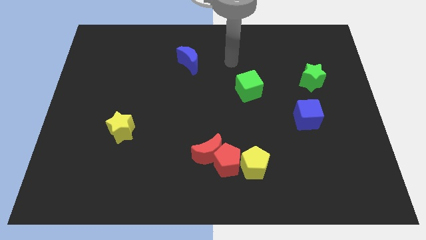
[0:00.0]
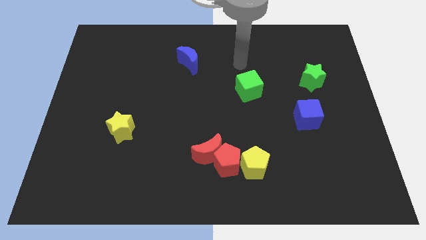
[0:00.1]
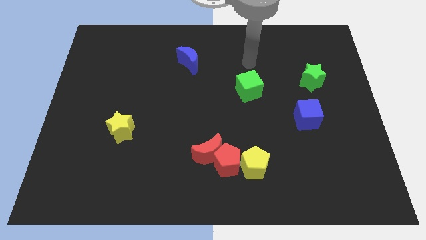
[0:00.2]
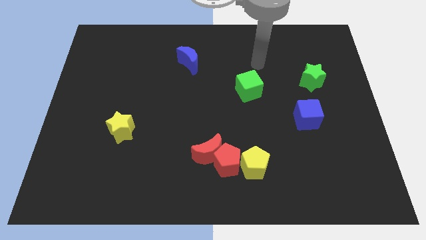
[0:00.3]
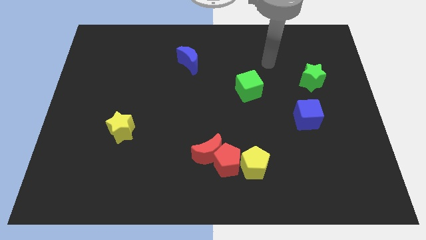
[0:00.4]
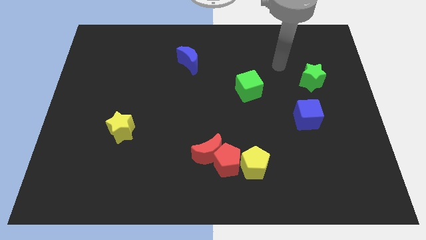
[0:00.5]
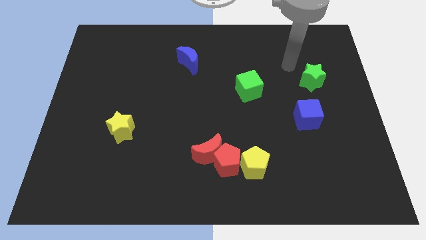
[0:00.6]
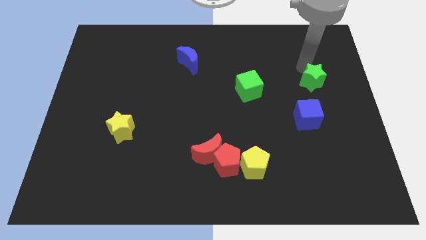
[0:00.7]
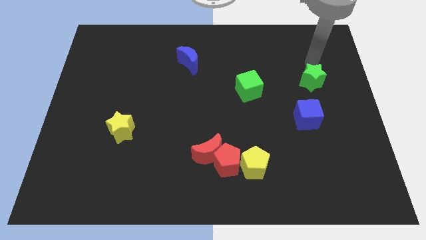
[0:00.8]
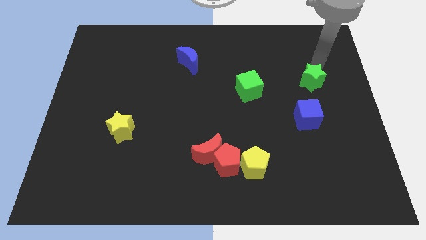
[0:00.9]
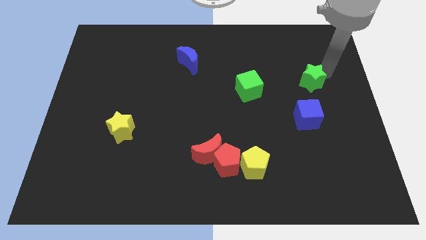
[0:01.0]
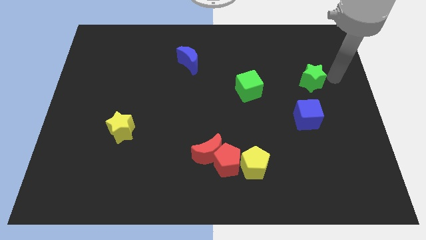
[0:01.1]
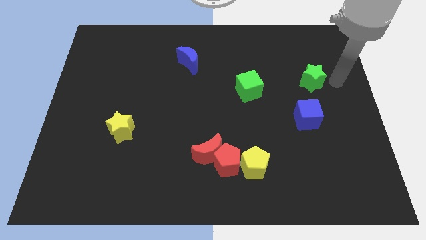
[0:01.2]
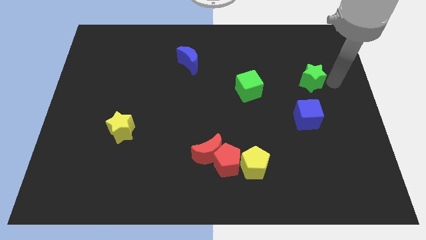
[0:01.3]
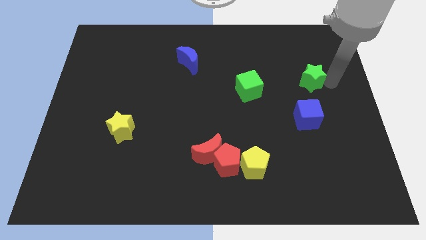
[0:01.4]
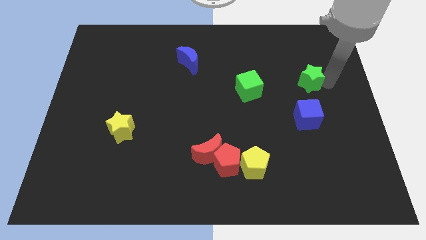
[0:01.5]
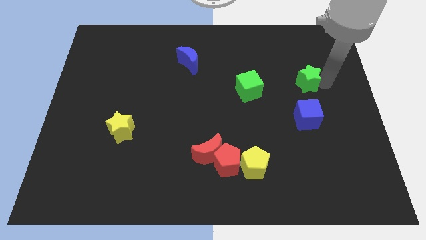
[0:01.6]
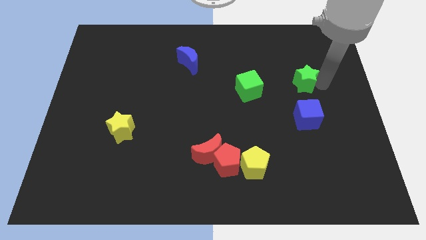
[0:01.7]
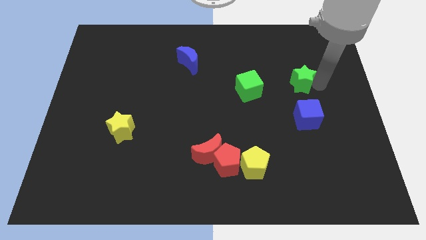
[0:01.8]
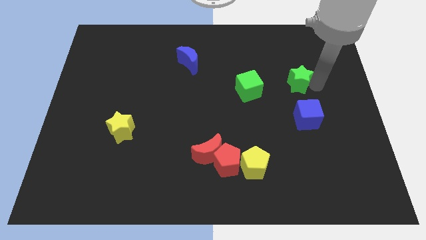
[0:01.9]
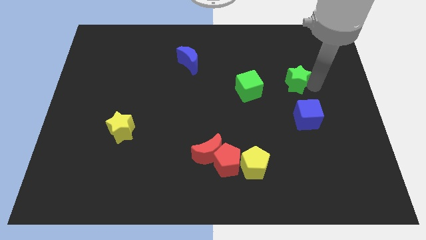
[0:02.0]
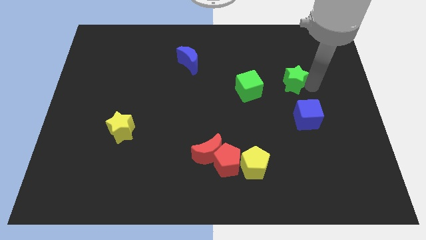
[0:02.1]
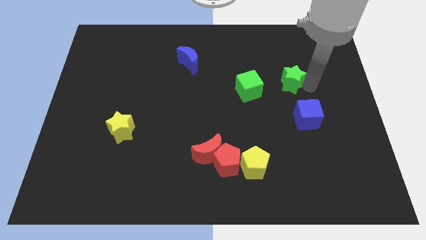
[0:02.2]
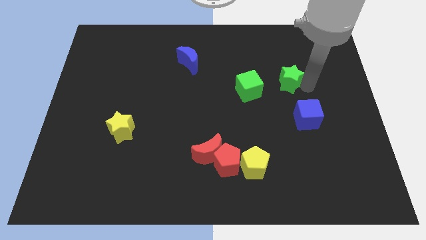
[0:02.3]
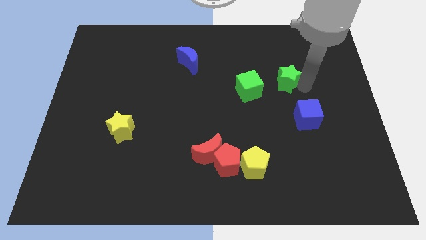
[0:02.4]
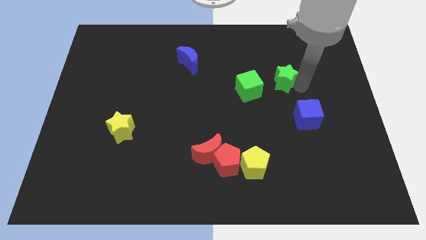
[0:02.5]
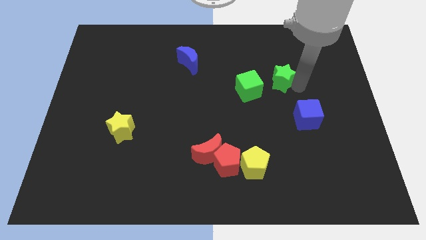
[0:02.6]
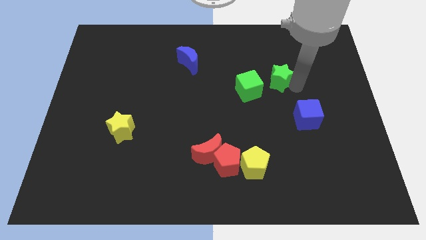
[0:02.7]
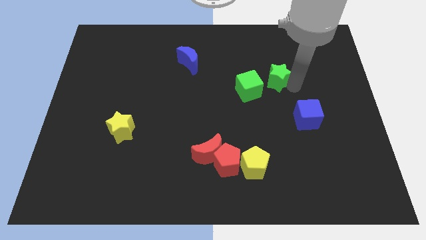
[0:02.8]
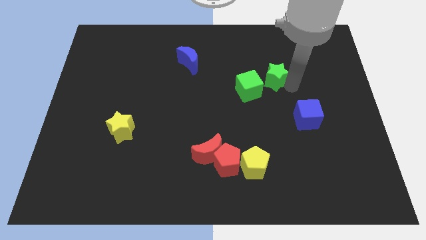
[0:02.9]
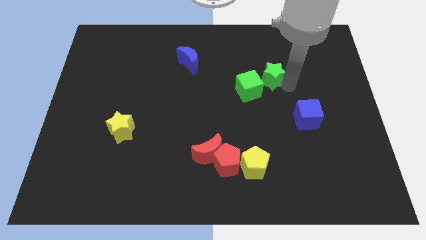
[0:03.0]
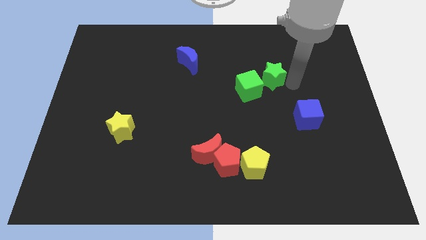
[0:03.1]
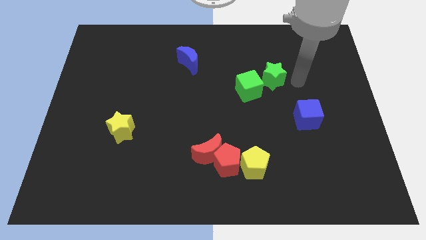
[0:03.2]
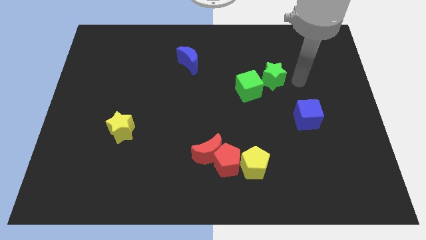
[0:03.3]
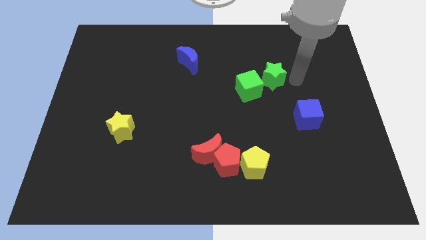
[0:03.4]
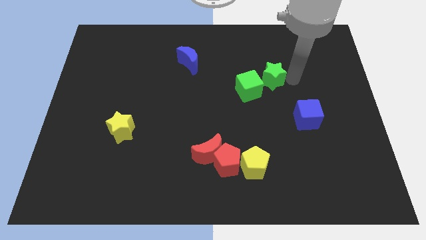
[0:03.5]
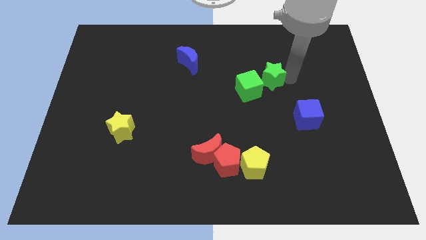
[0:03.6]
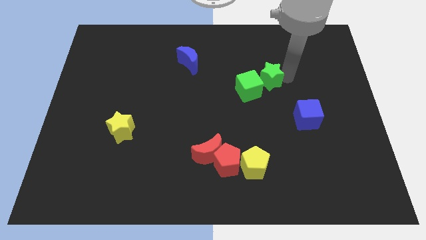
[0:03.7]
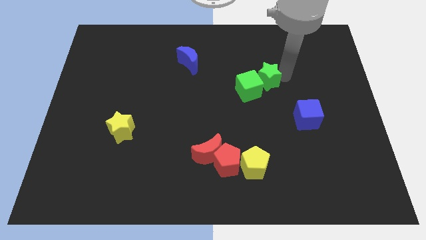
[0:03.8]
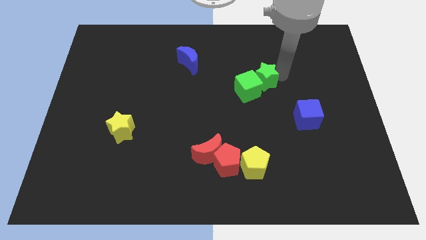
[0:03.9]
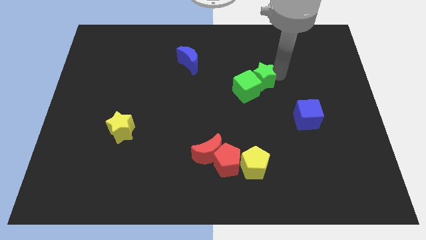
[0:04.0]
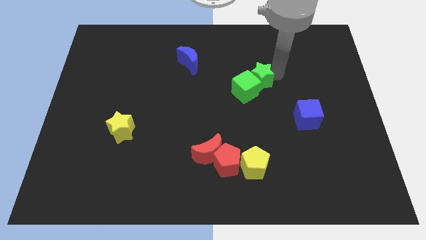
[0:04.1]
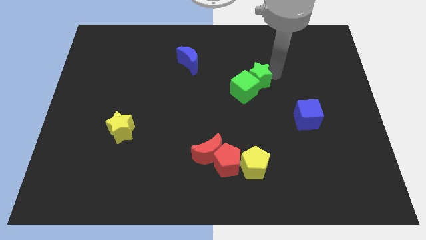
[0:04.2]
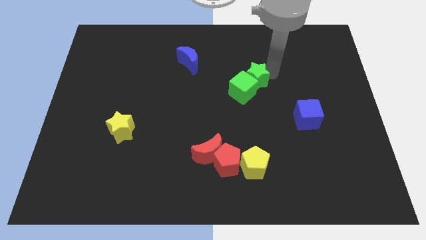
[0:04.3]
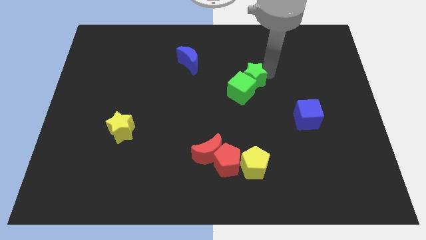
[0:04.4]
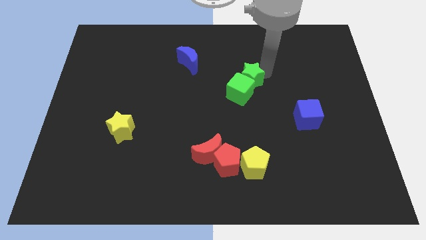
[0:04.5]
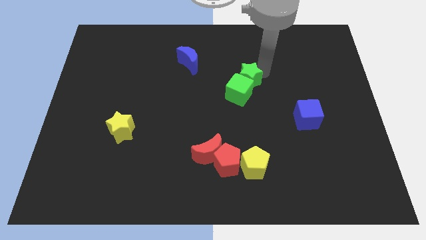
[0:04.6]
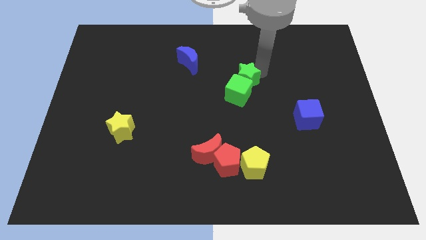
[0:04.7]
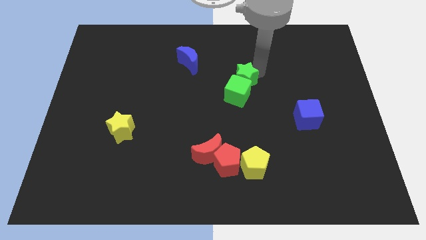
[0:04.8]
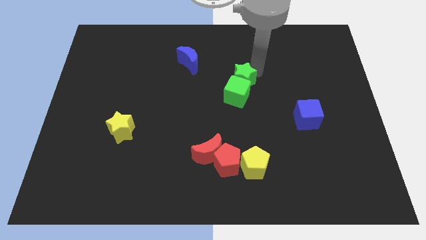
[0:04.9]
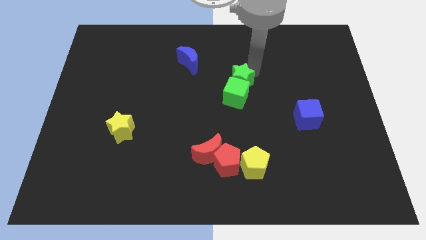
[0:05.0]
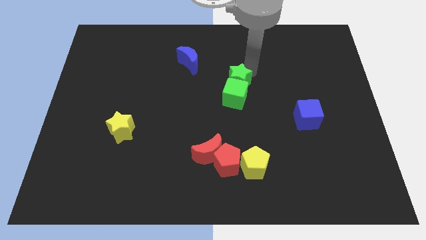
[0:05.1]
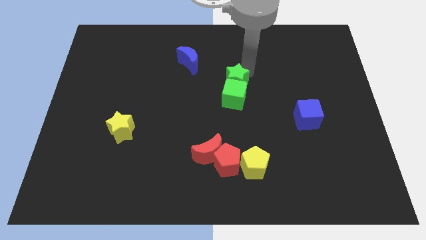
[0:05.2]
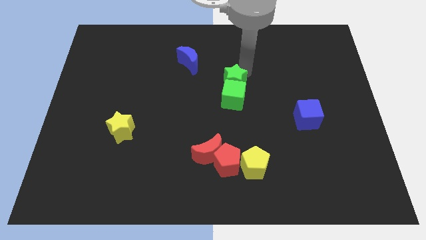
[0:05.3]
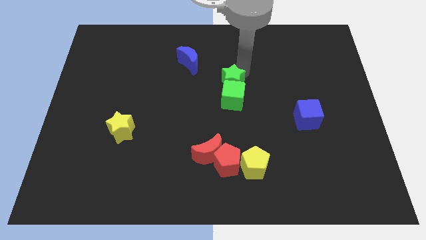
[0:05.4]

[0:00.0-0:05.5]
slide the green star left

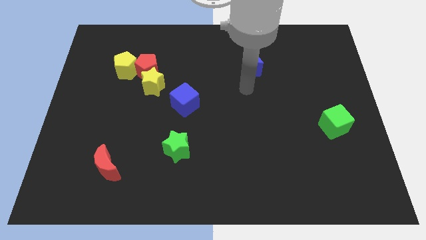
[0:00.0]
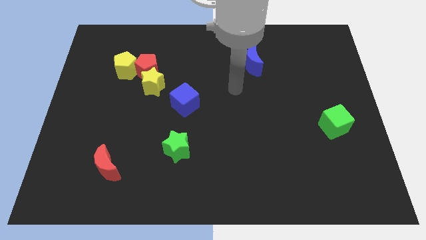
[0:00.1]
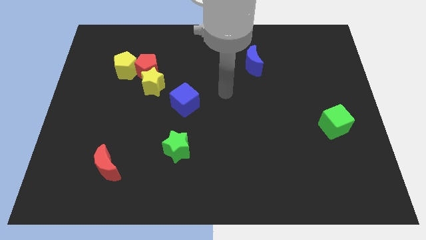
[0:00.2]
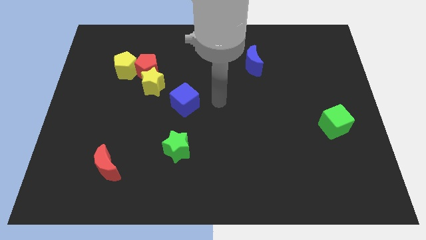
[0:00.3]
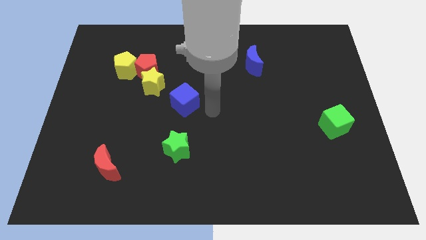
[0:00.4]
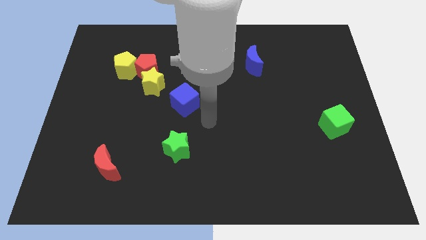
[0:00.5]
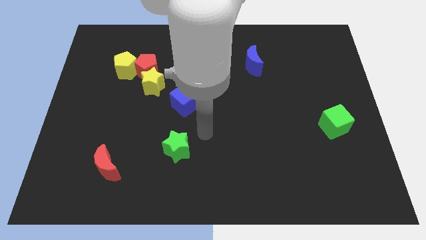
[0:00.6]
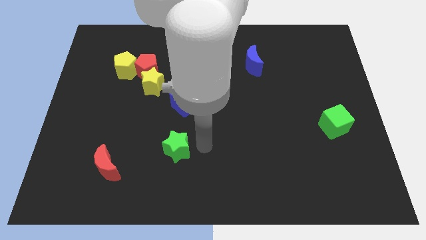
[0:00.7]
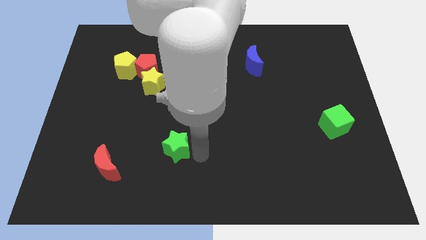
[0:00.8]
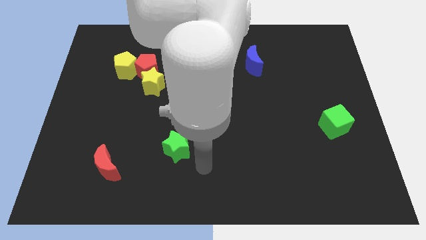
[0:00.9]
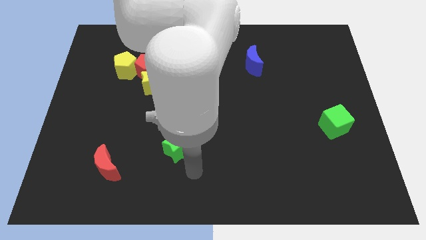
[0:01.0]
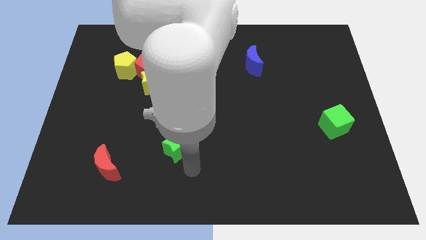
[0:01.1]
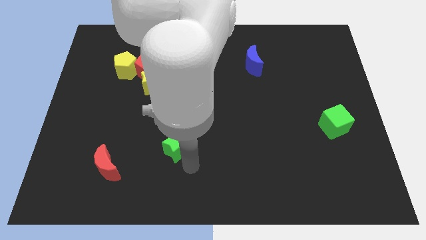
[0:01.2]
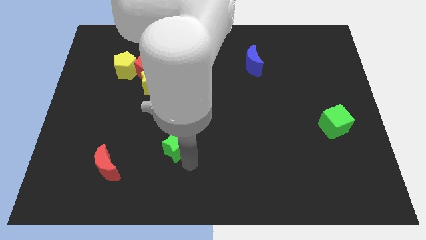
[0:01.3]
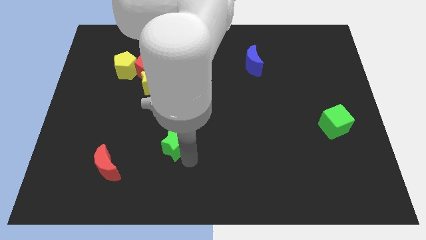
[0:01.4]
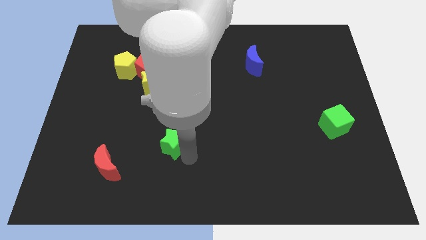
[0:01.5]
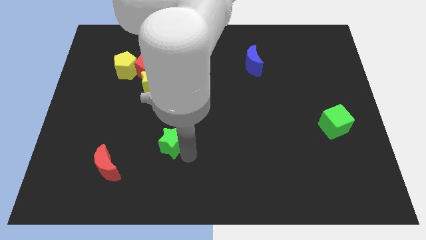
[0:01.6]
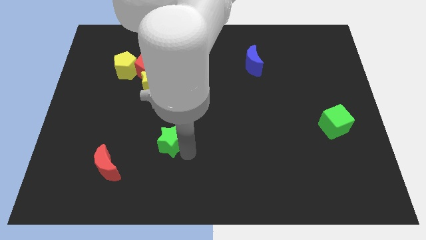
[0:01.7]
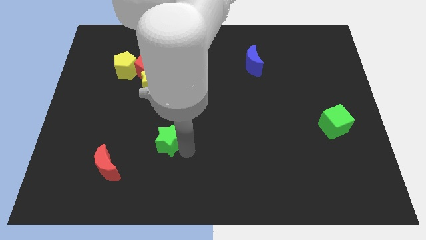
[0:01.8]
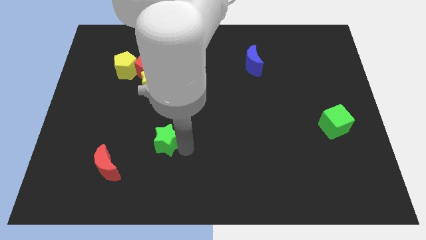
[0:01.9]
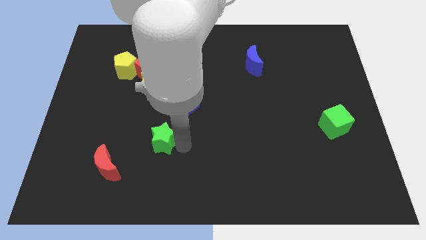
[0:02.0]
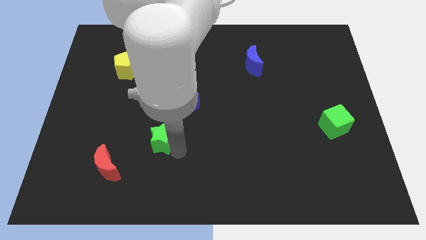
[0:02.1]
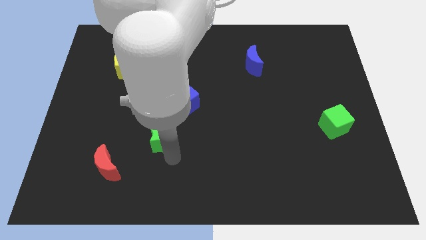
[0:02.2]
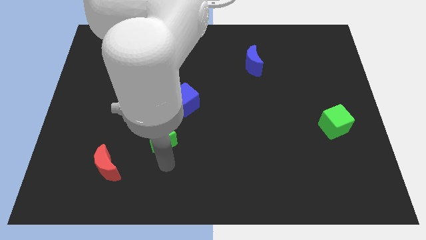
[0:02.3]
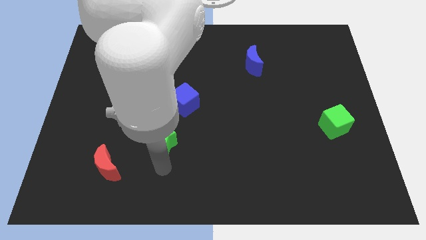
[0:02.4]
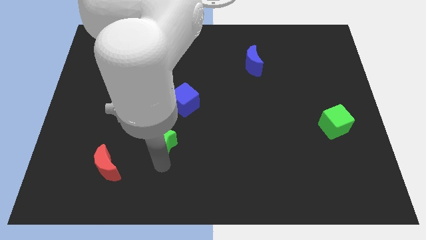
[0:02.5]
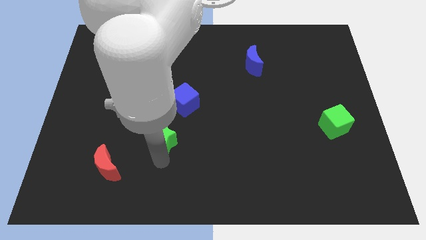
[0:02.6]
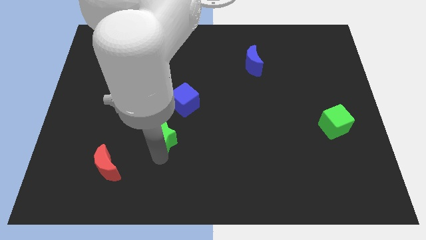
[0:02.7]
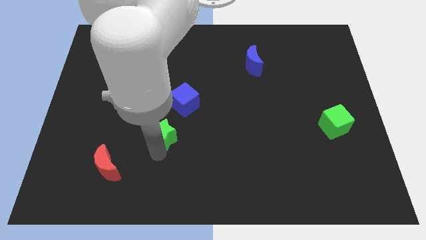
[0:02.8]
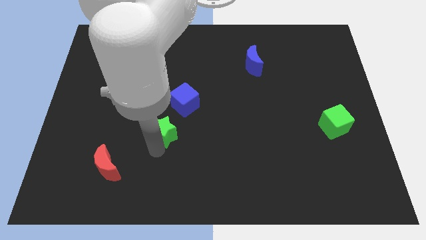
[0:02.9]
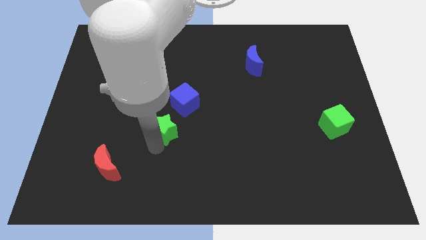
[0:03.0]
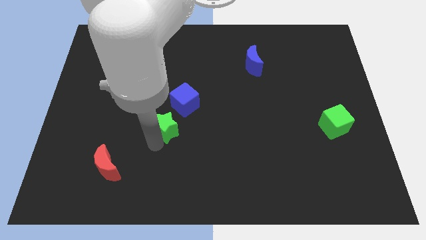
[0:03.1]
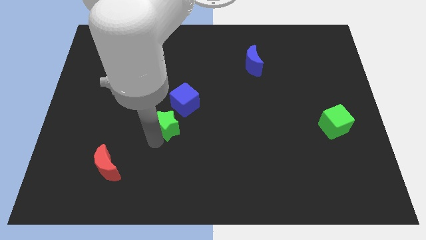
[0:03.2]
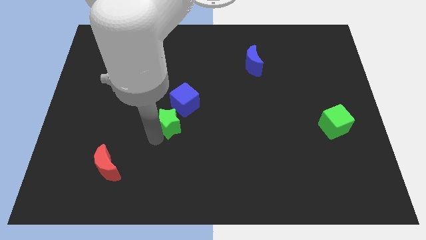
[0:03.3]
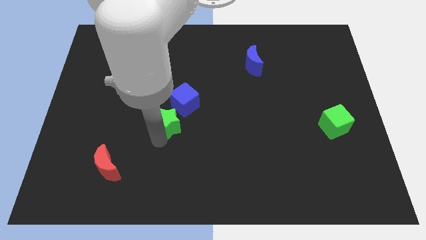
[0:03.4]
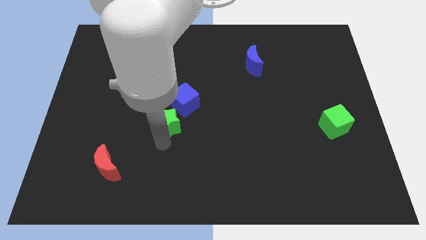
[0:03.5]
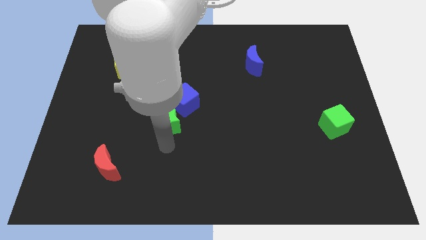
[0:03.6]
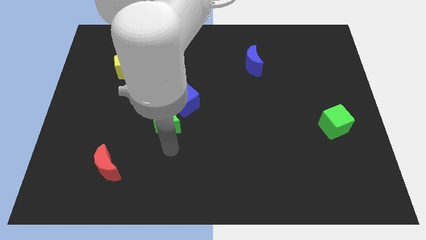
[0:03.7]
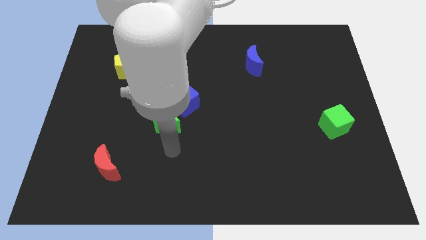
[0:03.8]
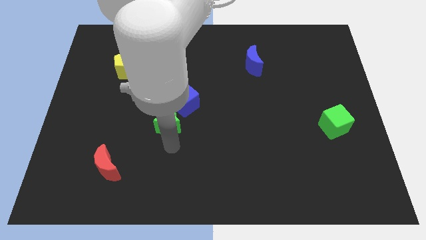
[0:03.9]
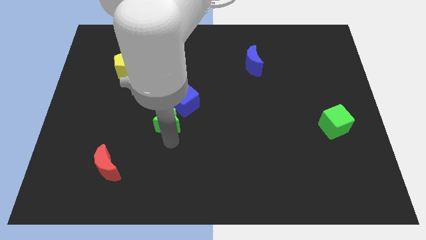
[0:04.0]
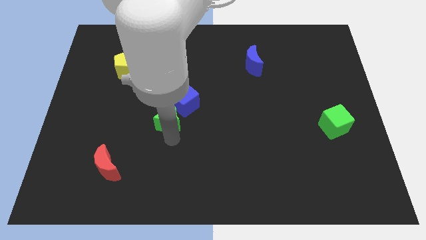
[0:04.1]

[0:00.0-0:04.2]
slightly move the green star up
